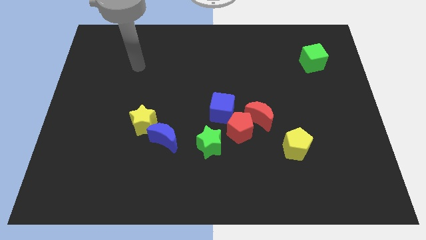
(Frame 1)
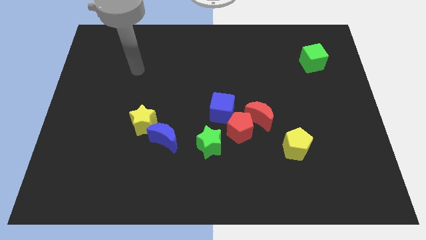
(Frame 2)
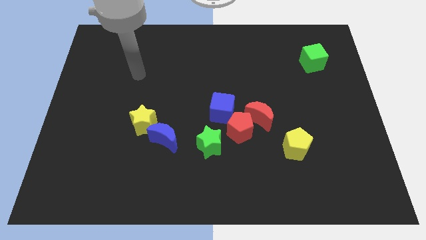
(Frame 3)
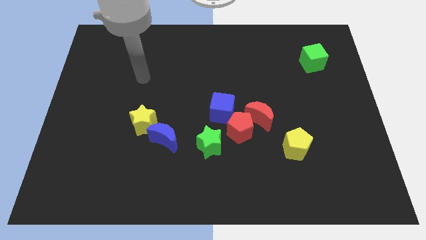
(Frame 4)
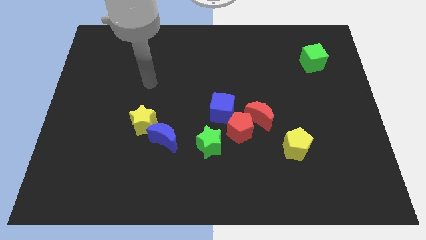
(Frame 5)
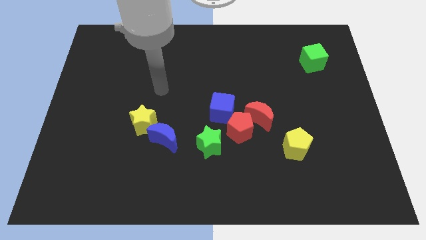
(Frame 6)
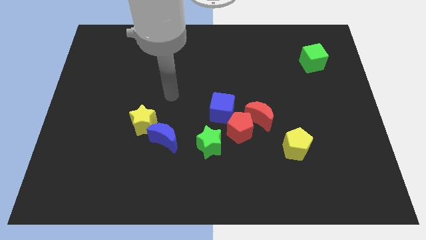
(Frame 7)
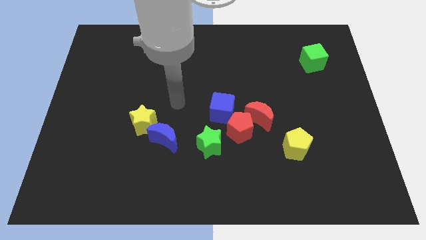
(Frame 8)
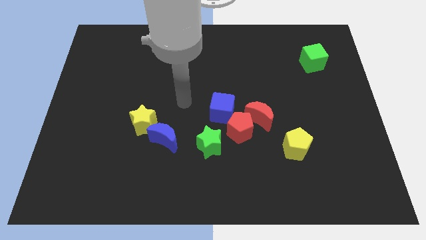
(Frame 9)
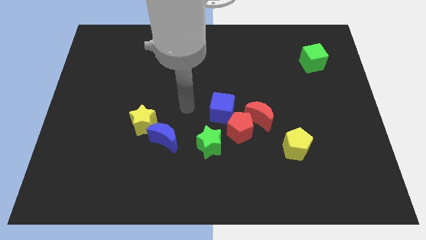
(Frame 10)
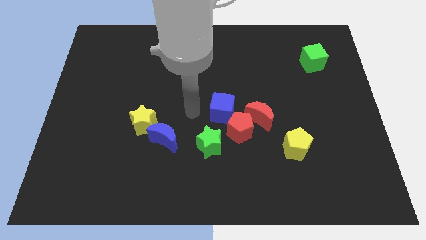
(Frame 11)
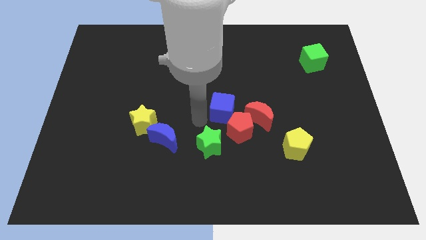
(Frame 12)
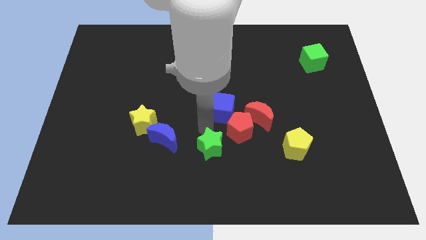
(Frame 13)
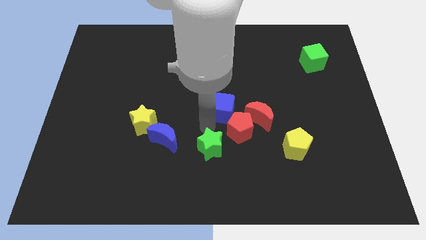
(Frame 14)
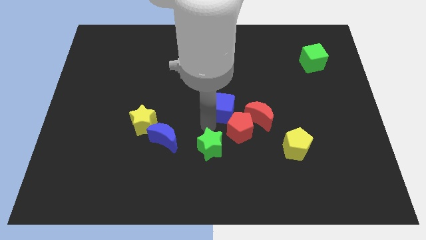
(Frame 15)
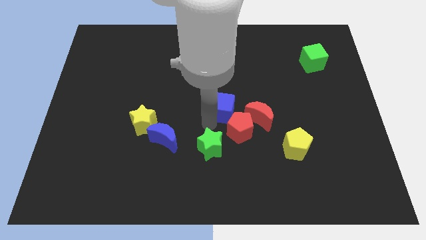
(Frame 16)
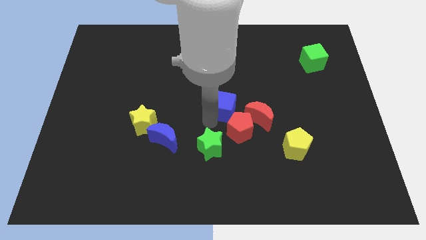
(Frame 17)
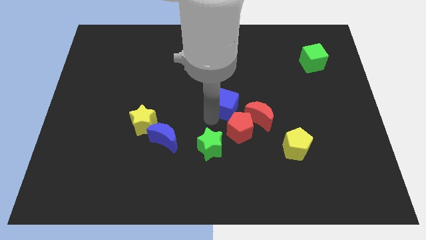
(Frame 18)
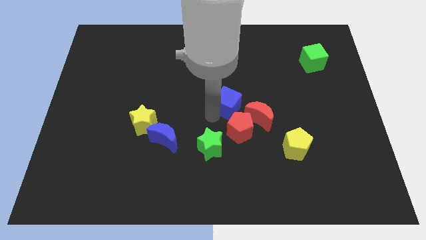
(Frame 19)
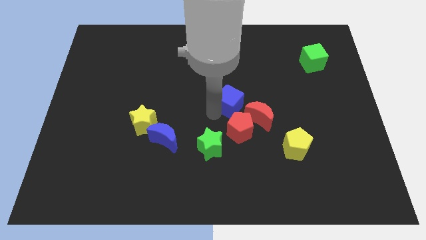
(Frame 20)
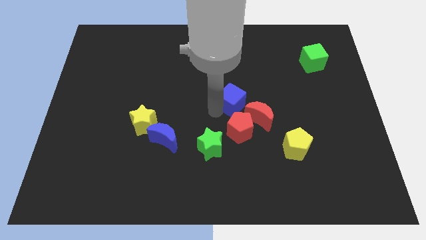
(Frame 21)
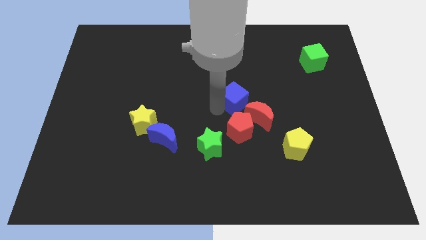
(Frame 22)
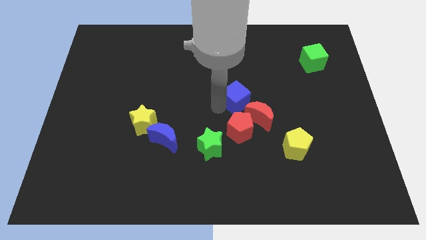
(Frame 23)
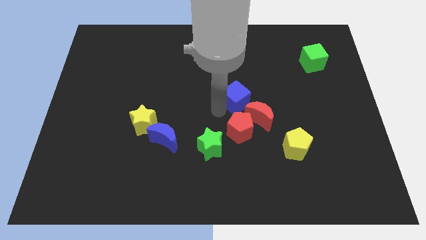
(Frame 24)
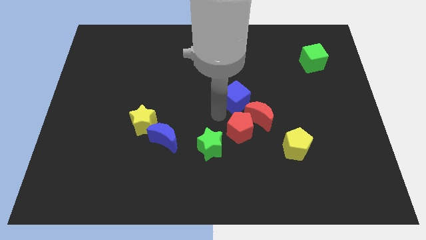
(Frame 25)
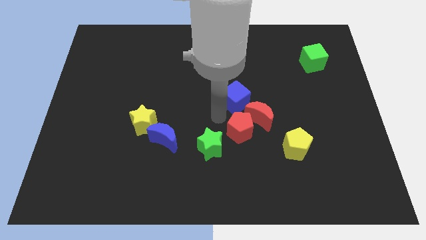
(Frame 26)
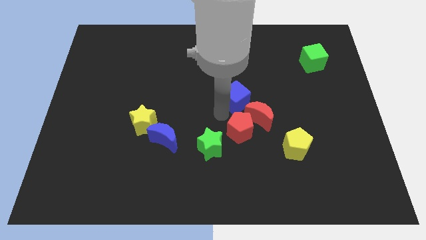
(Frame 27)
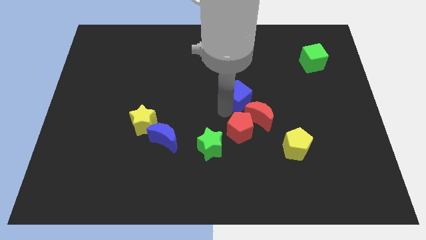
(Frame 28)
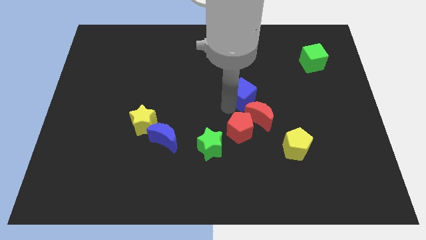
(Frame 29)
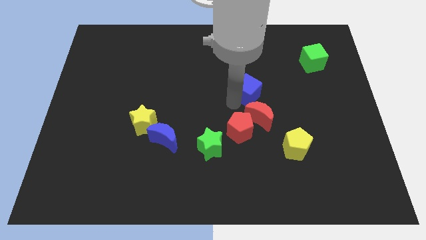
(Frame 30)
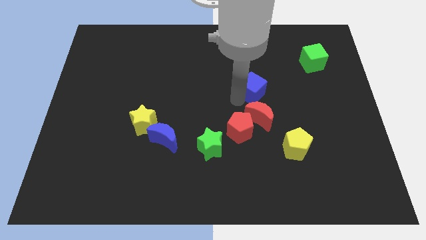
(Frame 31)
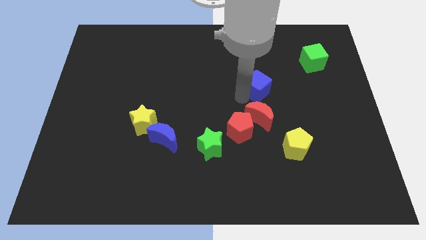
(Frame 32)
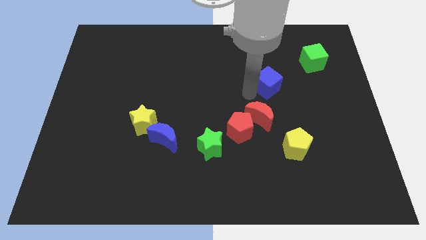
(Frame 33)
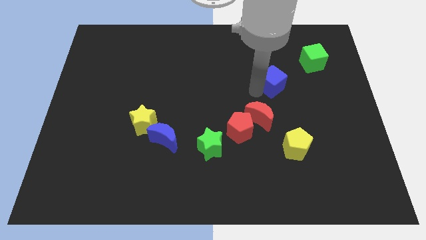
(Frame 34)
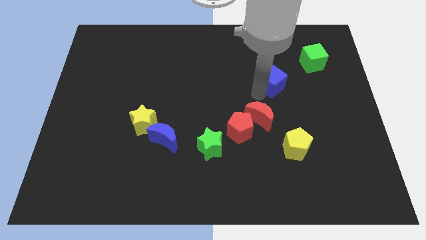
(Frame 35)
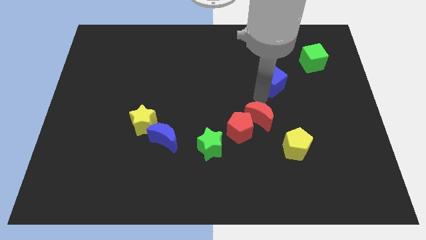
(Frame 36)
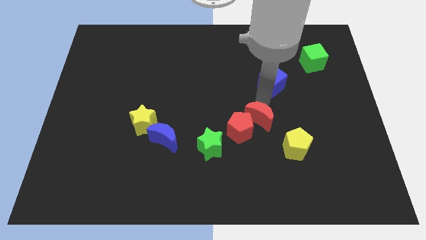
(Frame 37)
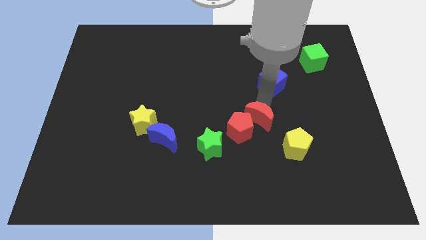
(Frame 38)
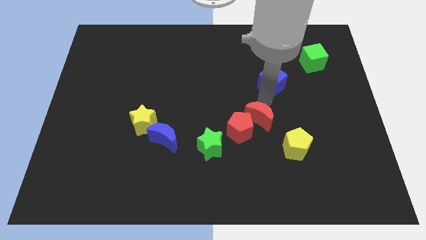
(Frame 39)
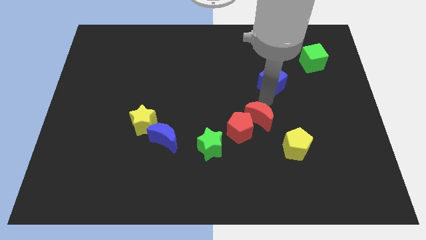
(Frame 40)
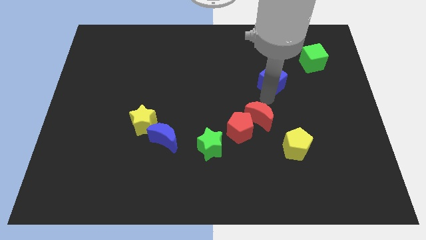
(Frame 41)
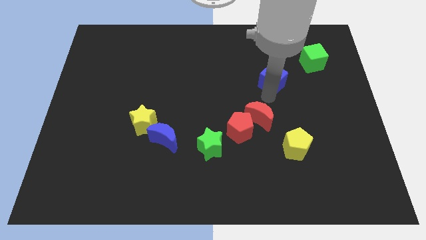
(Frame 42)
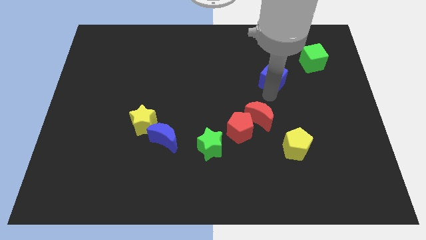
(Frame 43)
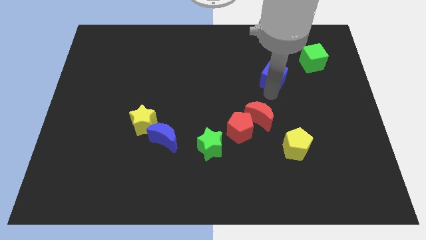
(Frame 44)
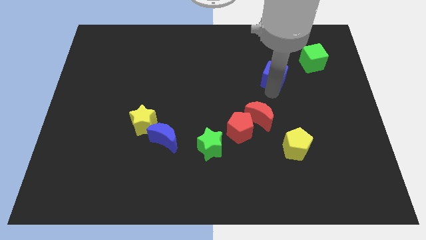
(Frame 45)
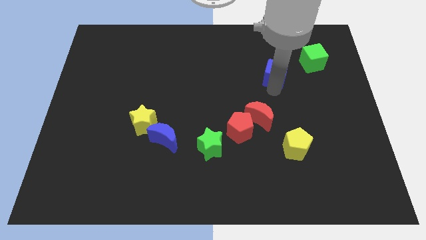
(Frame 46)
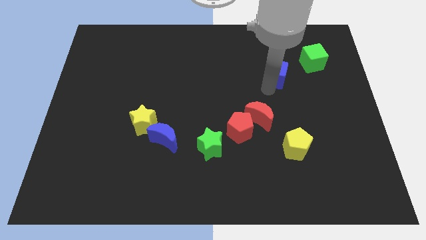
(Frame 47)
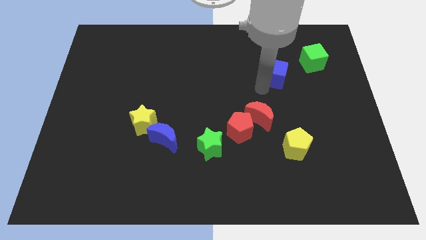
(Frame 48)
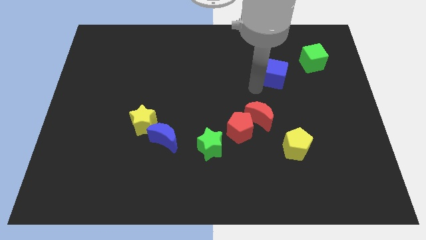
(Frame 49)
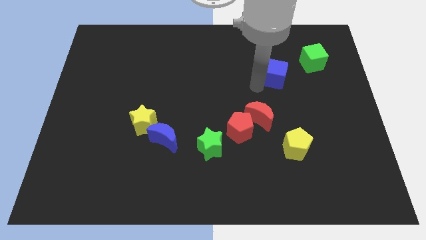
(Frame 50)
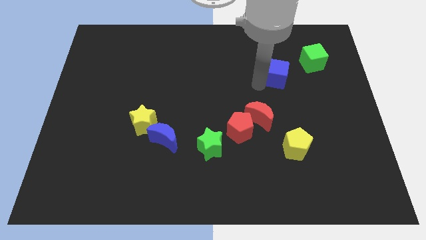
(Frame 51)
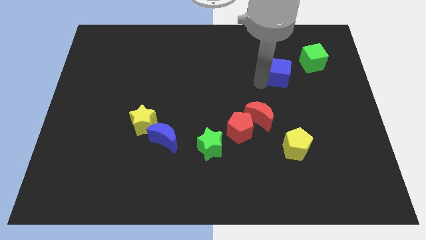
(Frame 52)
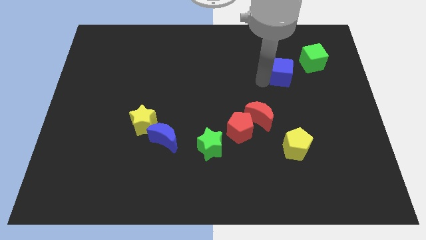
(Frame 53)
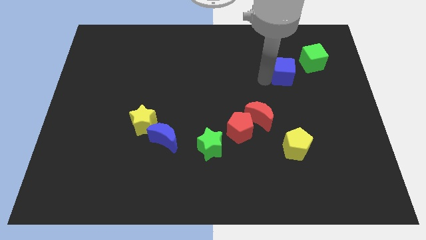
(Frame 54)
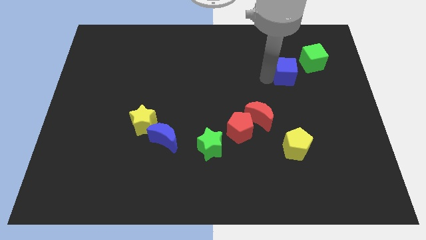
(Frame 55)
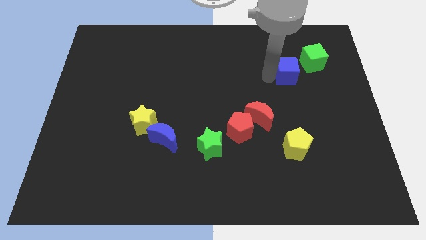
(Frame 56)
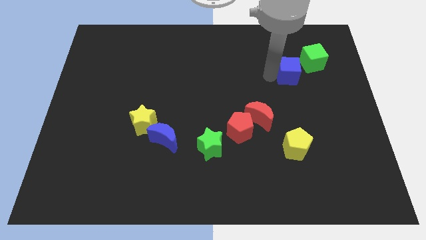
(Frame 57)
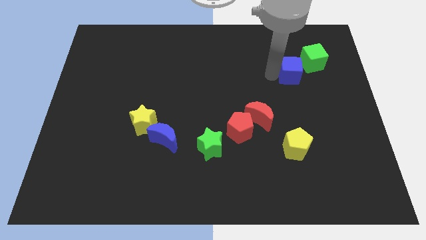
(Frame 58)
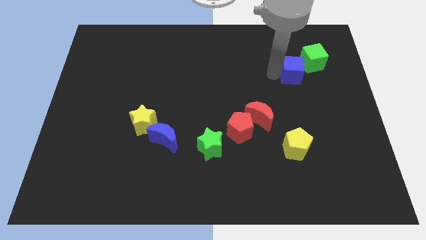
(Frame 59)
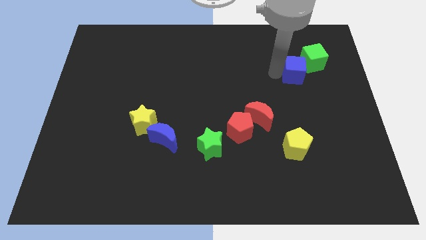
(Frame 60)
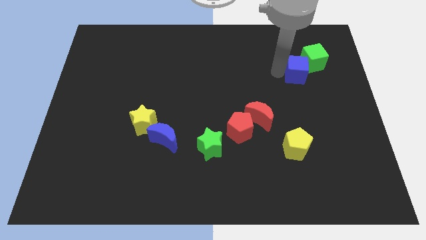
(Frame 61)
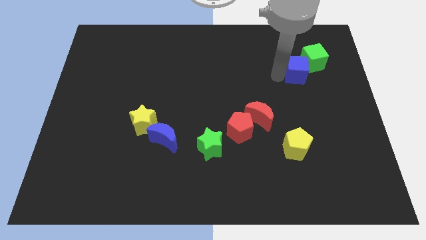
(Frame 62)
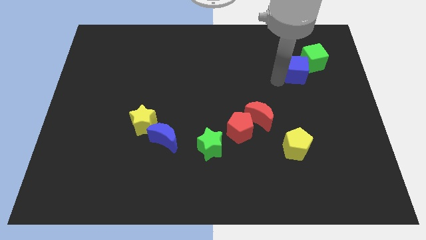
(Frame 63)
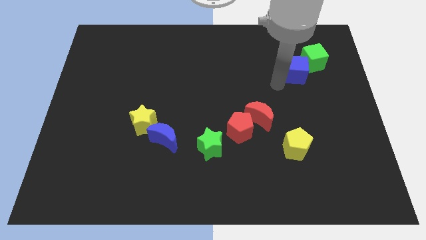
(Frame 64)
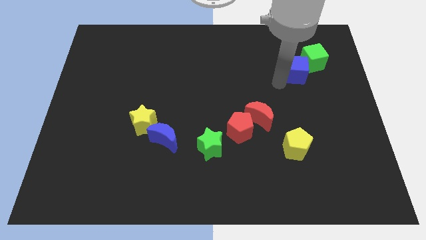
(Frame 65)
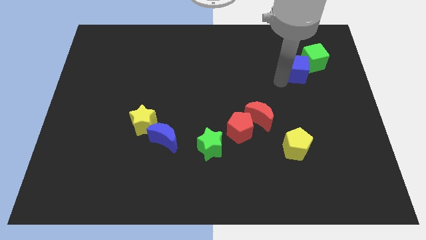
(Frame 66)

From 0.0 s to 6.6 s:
slide the blue cube close to the green cube

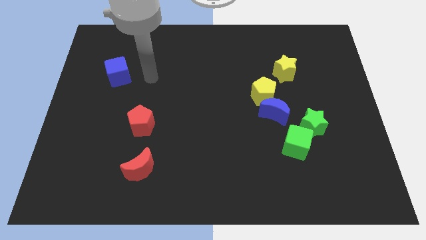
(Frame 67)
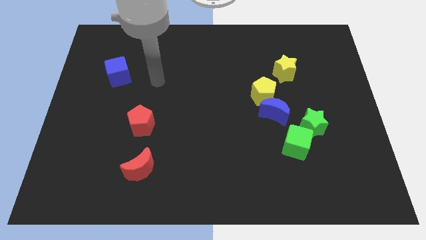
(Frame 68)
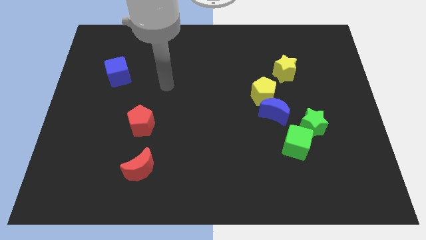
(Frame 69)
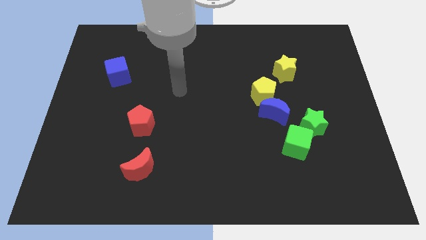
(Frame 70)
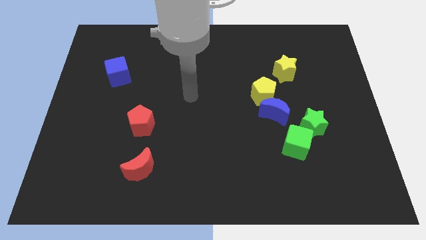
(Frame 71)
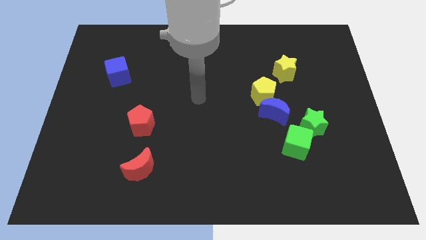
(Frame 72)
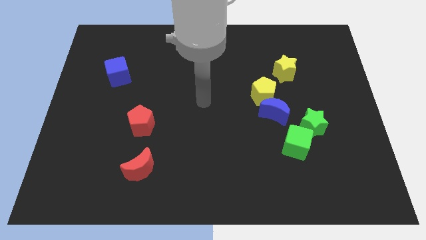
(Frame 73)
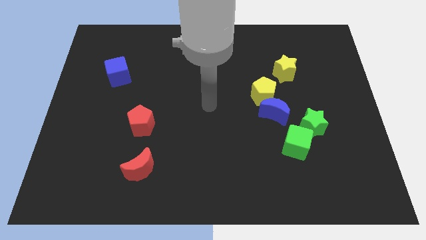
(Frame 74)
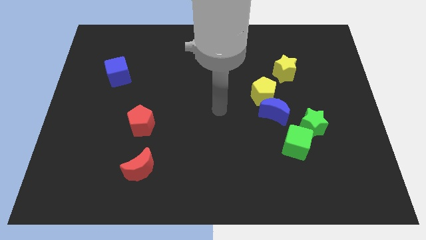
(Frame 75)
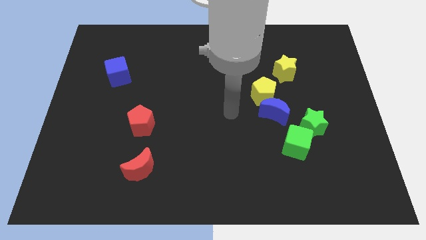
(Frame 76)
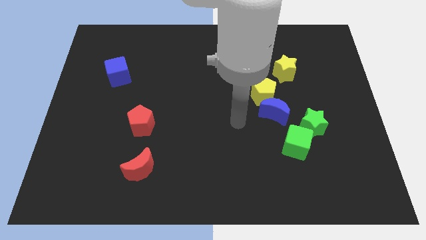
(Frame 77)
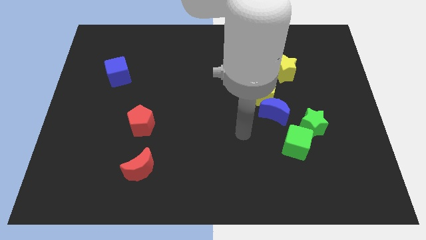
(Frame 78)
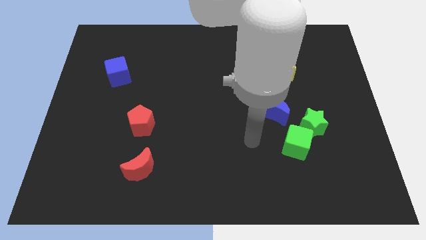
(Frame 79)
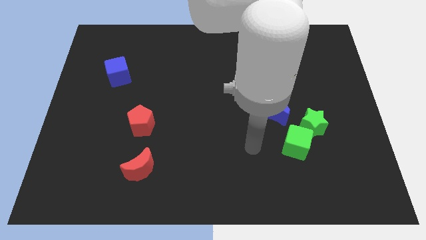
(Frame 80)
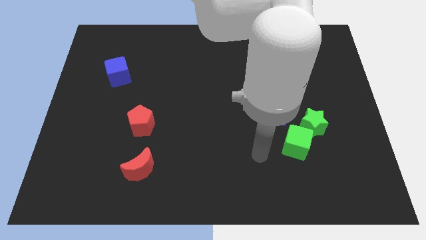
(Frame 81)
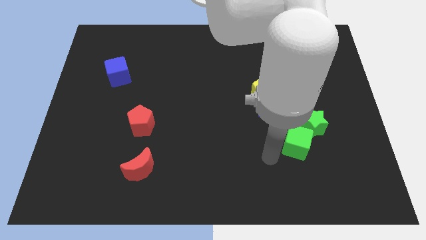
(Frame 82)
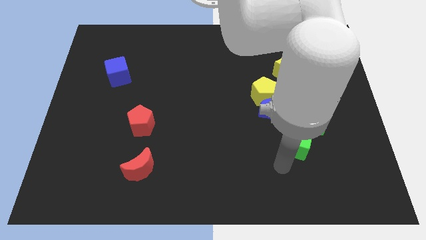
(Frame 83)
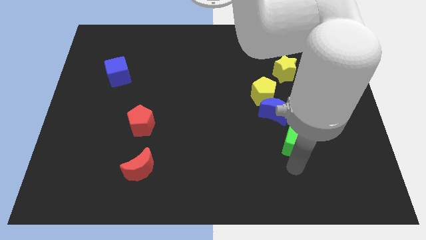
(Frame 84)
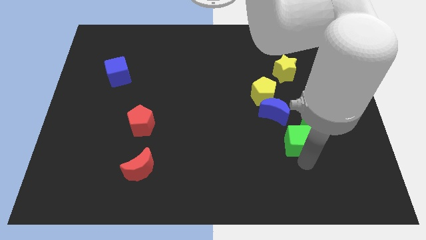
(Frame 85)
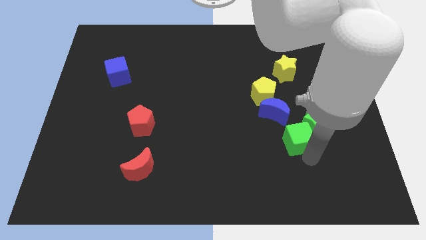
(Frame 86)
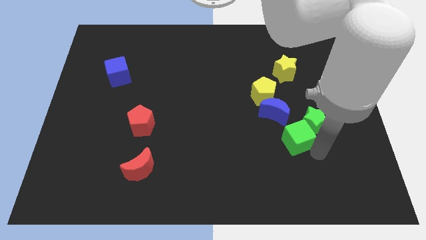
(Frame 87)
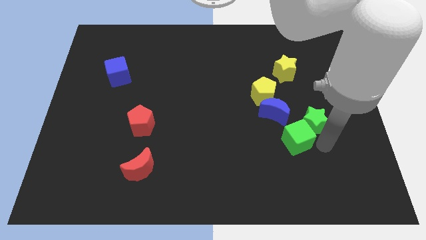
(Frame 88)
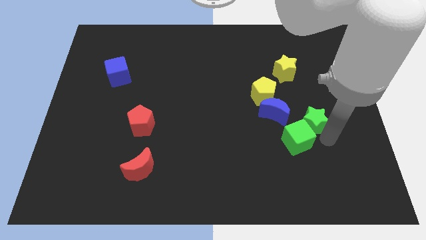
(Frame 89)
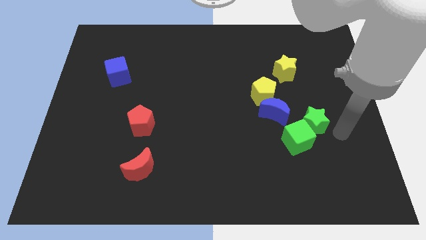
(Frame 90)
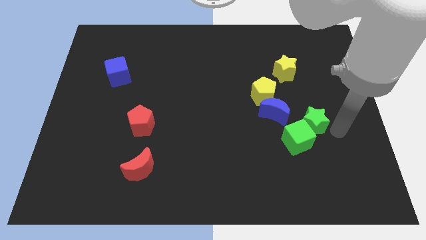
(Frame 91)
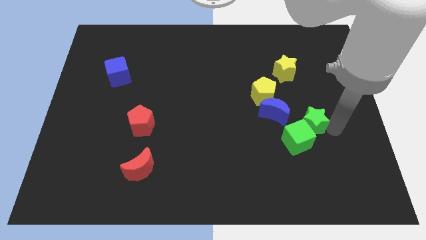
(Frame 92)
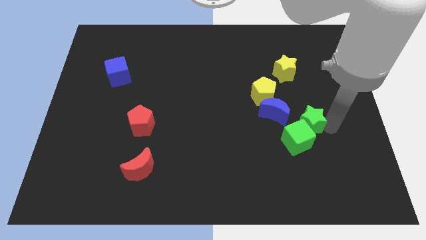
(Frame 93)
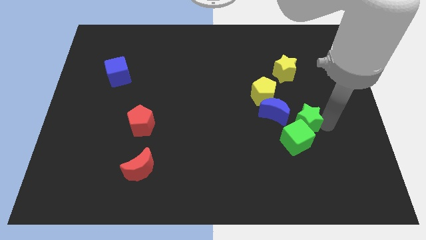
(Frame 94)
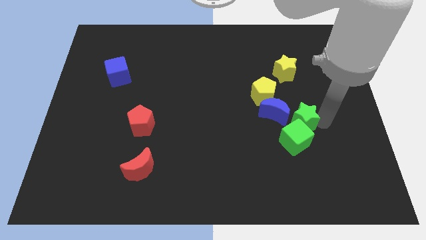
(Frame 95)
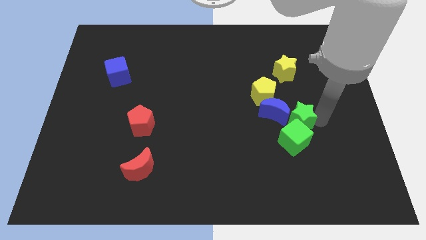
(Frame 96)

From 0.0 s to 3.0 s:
slide the green star close to the blue moon
